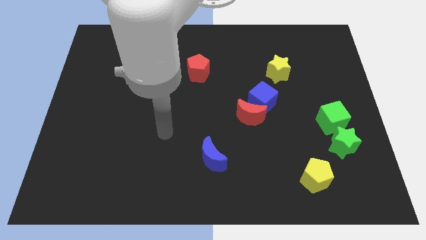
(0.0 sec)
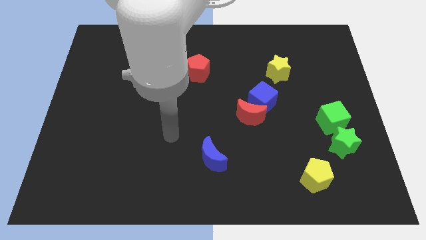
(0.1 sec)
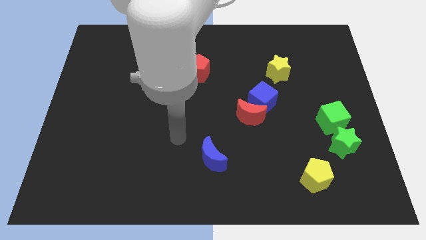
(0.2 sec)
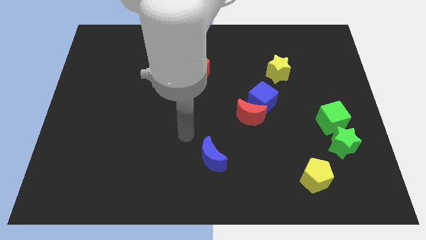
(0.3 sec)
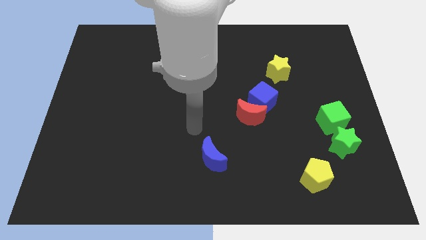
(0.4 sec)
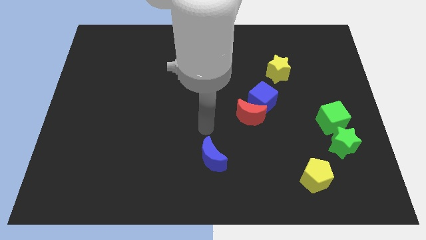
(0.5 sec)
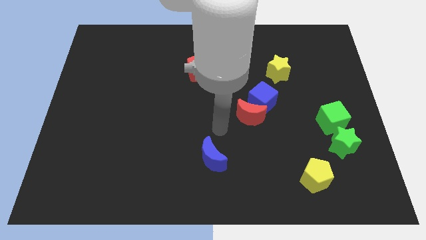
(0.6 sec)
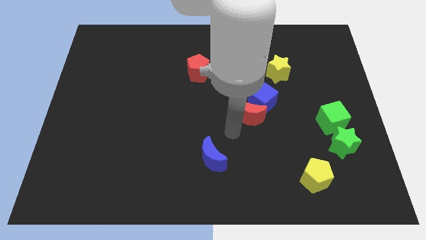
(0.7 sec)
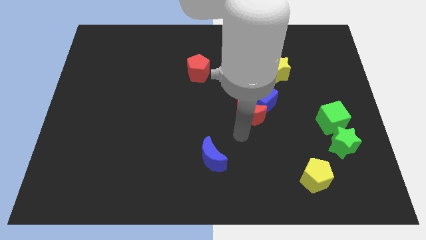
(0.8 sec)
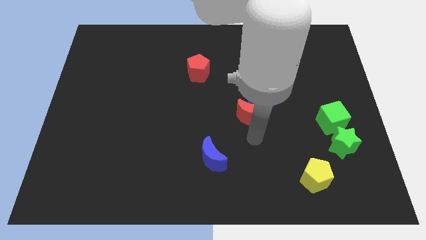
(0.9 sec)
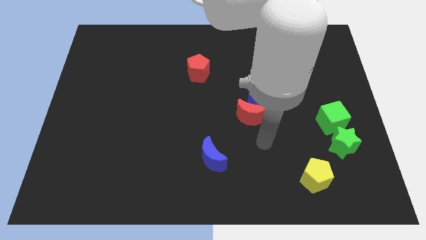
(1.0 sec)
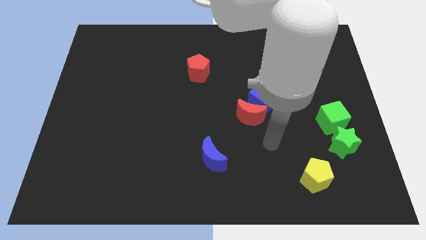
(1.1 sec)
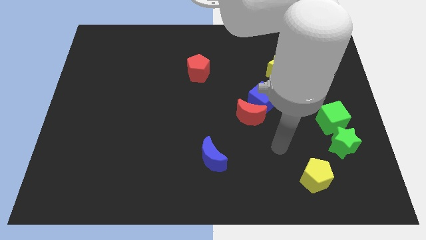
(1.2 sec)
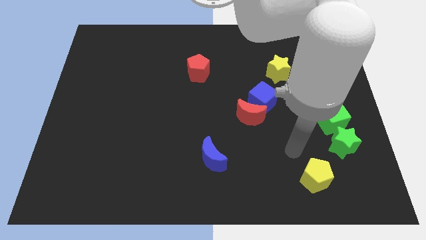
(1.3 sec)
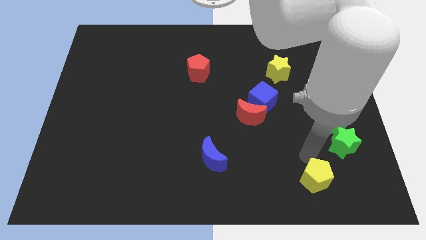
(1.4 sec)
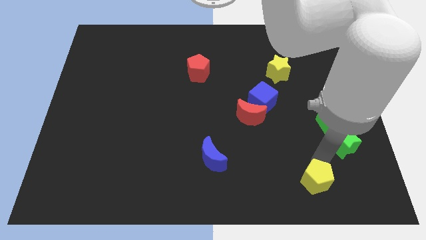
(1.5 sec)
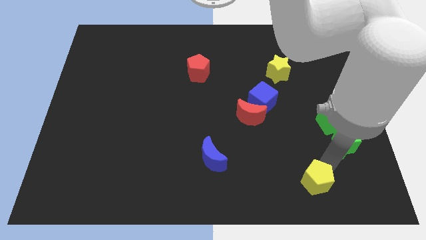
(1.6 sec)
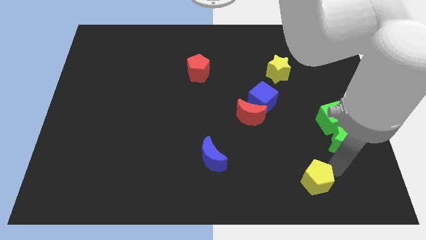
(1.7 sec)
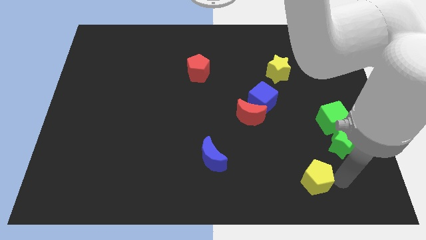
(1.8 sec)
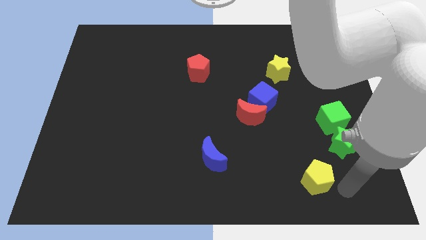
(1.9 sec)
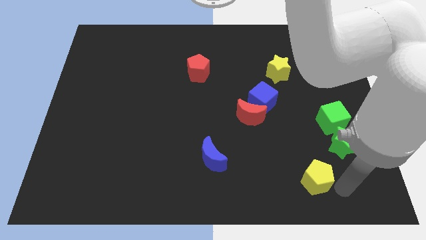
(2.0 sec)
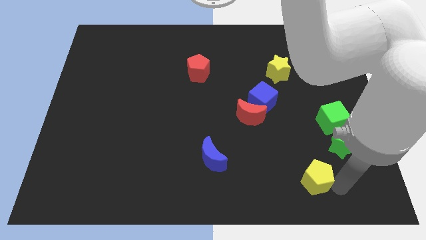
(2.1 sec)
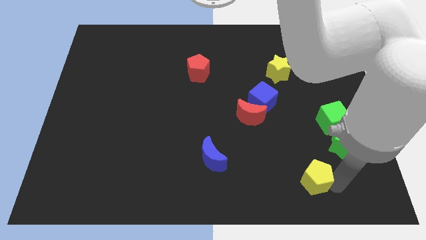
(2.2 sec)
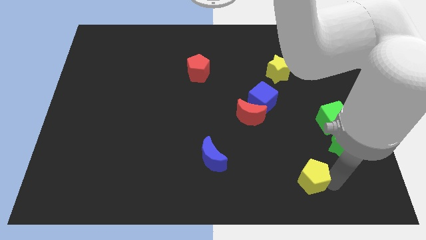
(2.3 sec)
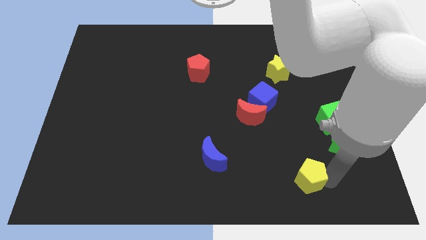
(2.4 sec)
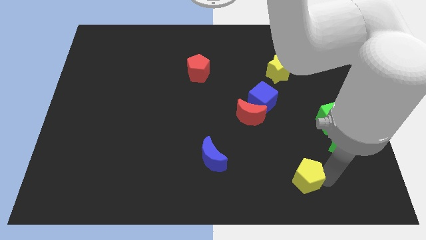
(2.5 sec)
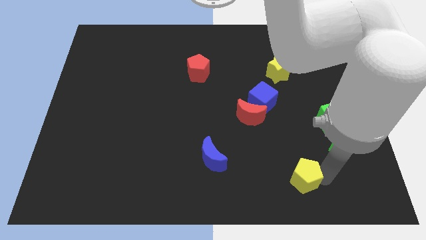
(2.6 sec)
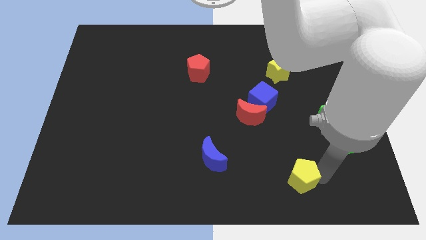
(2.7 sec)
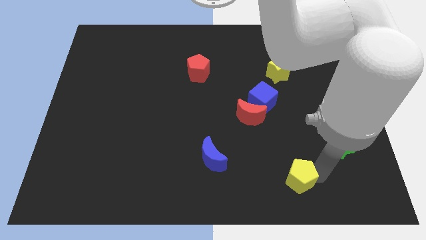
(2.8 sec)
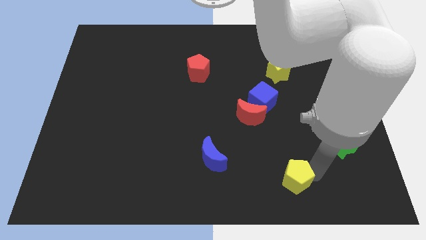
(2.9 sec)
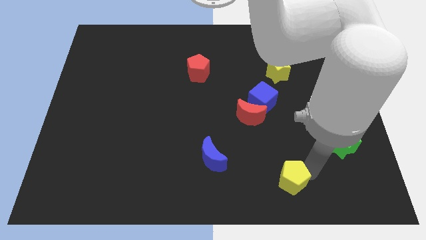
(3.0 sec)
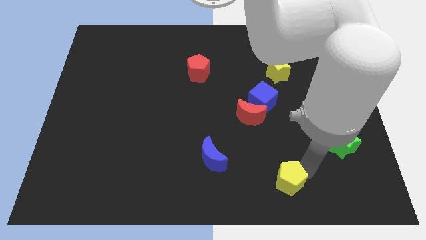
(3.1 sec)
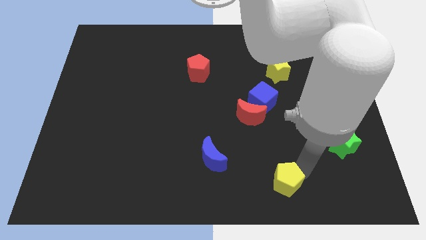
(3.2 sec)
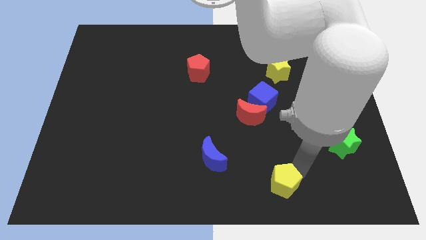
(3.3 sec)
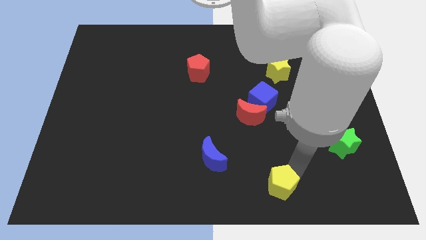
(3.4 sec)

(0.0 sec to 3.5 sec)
move the yellow pentagon to the left a little

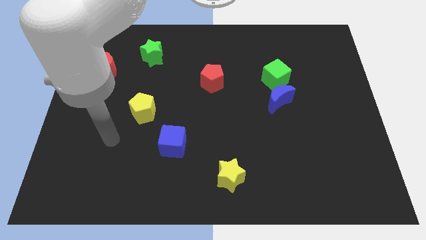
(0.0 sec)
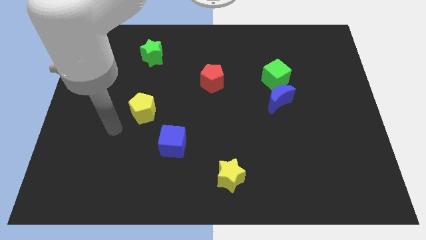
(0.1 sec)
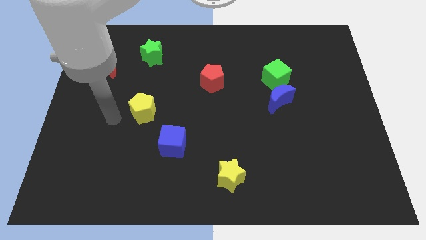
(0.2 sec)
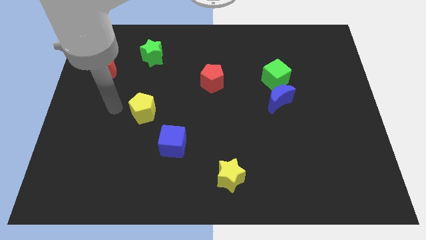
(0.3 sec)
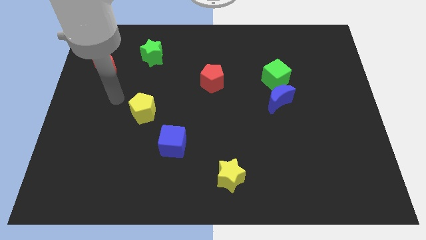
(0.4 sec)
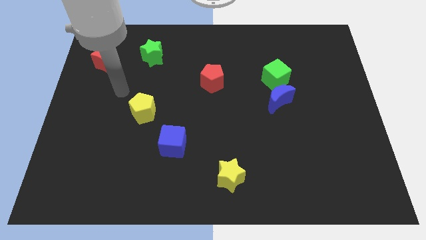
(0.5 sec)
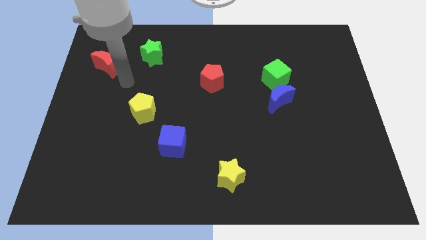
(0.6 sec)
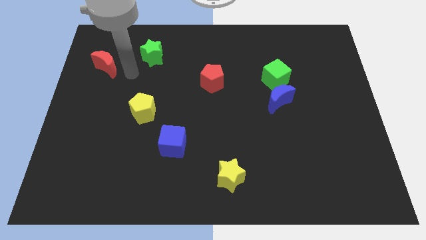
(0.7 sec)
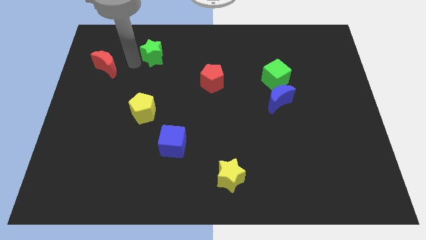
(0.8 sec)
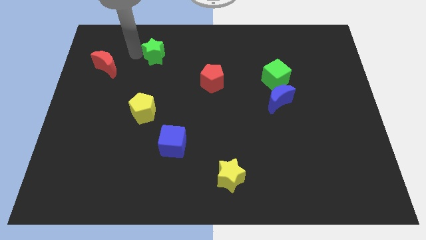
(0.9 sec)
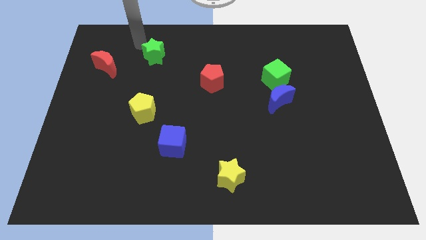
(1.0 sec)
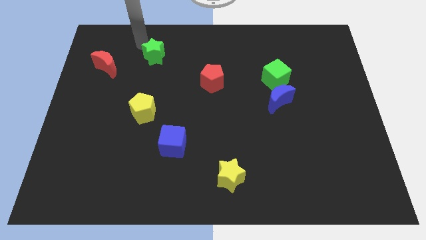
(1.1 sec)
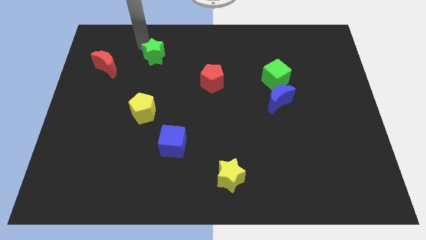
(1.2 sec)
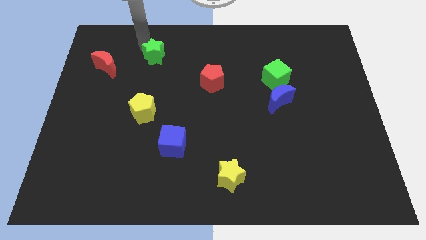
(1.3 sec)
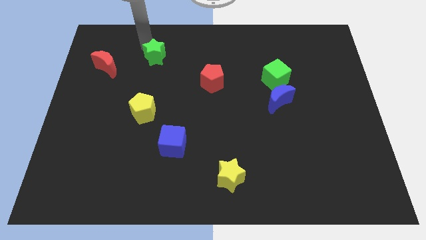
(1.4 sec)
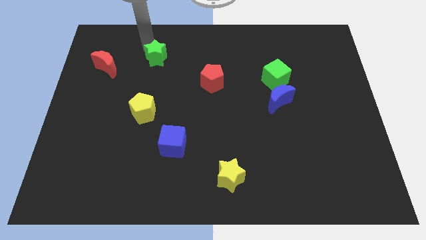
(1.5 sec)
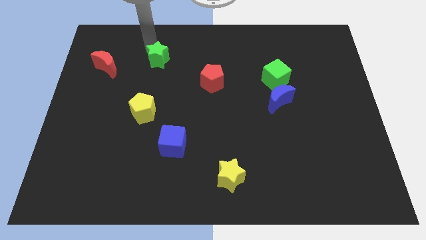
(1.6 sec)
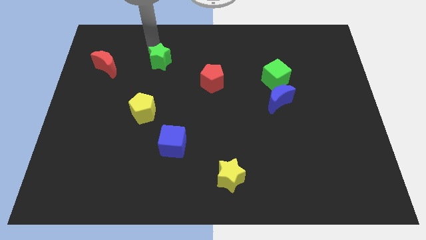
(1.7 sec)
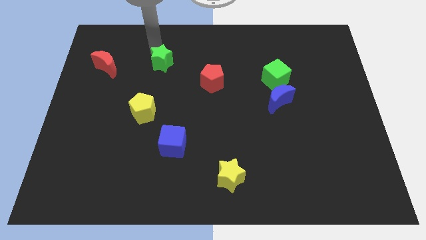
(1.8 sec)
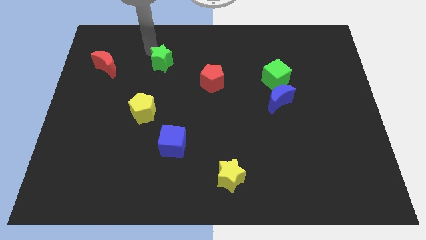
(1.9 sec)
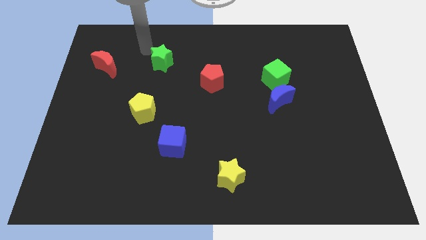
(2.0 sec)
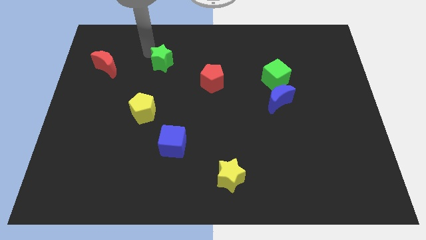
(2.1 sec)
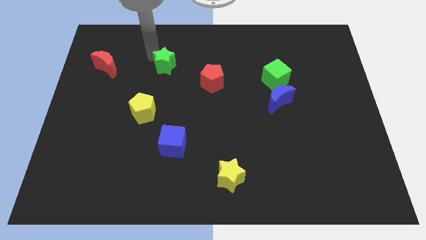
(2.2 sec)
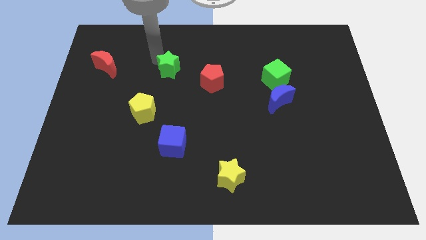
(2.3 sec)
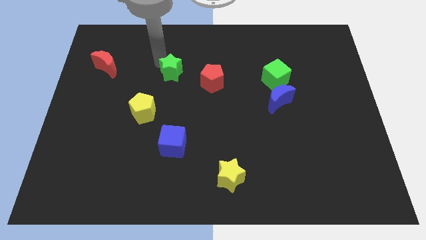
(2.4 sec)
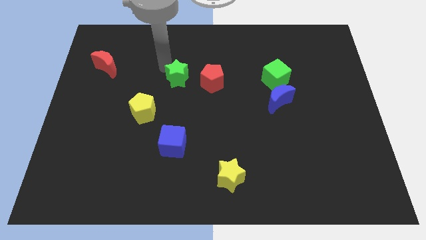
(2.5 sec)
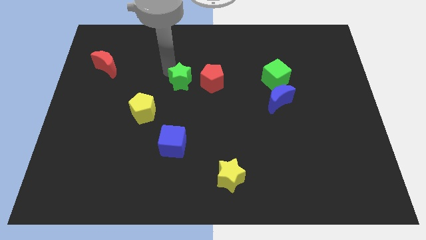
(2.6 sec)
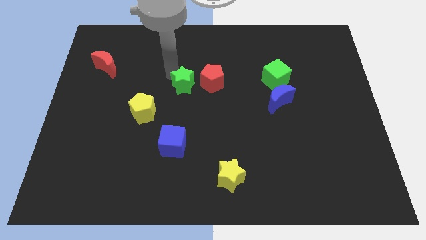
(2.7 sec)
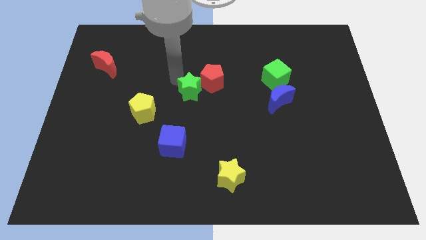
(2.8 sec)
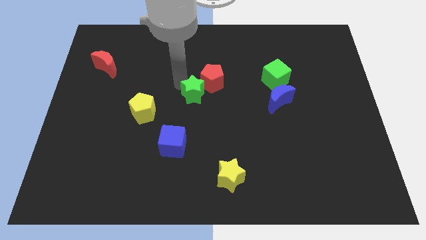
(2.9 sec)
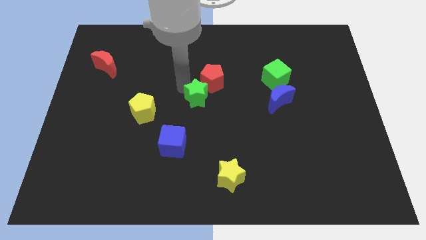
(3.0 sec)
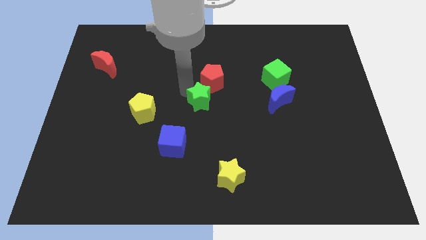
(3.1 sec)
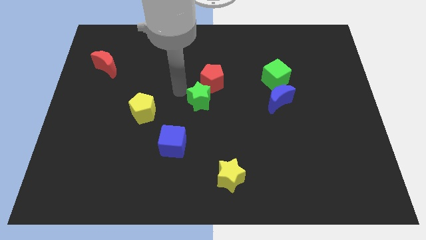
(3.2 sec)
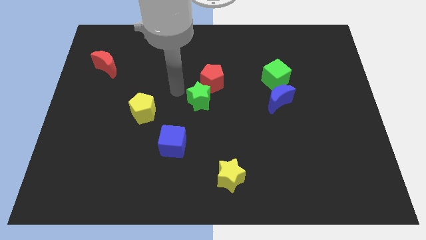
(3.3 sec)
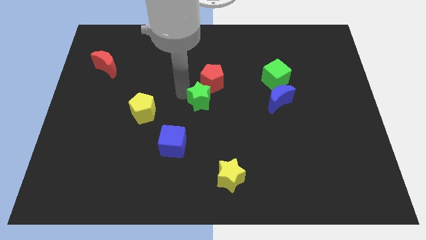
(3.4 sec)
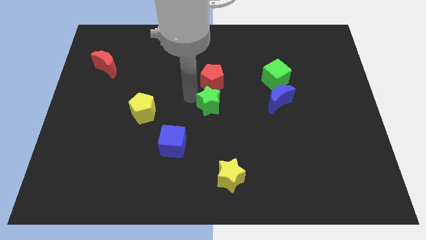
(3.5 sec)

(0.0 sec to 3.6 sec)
slide the green star down and to the right diagonally

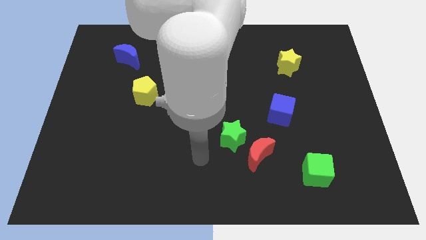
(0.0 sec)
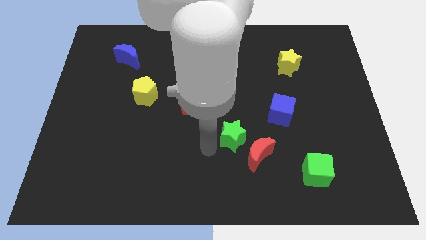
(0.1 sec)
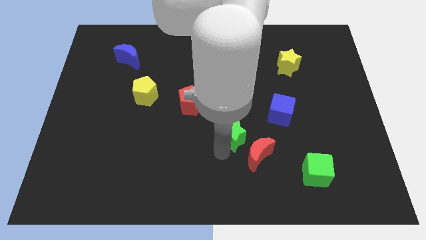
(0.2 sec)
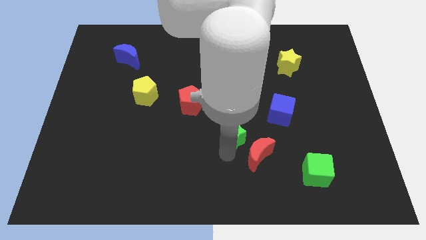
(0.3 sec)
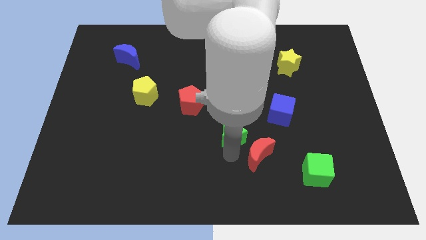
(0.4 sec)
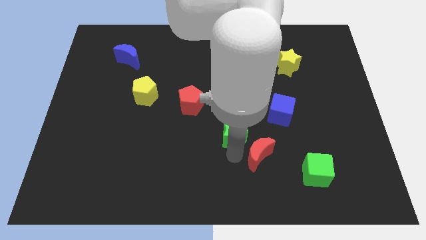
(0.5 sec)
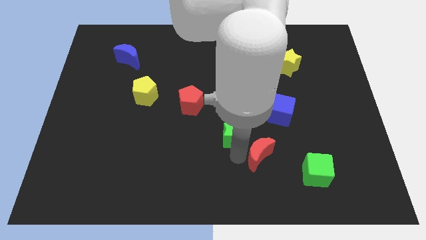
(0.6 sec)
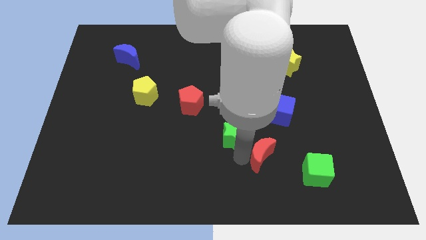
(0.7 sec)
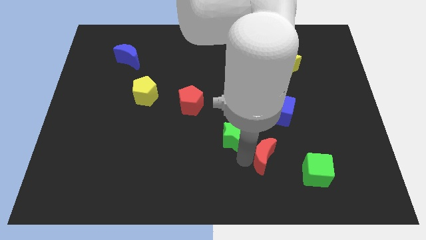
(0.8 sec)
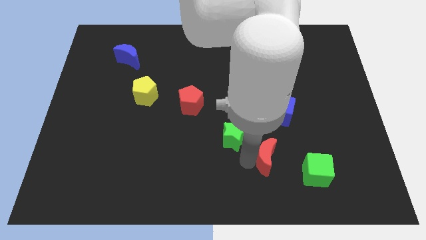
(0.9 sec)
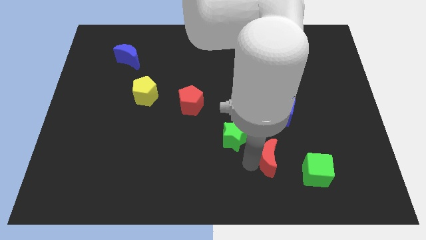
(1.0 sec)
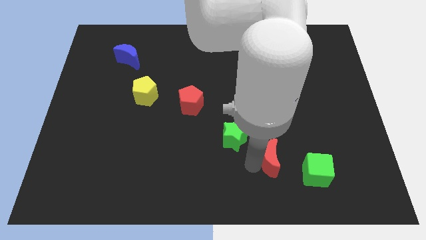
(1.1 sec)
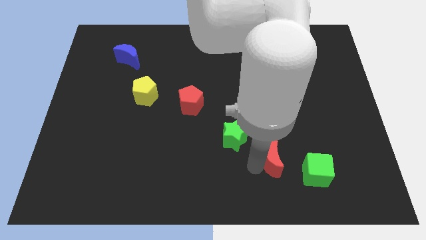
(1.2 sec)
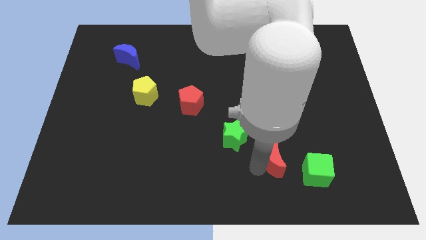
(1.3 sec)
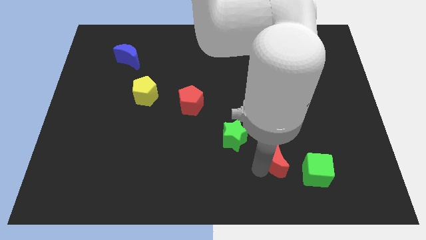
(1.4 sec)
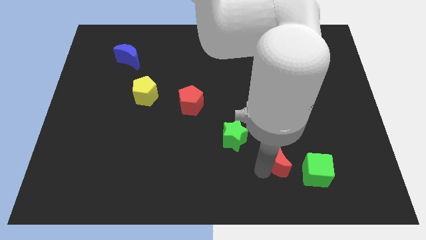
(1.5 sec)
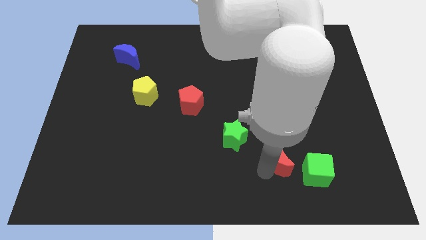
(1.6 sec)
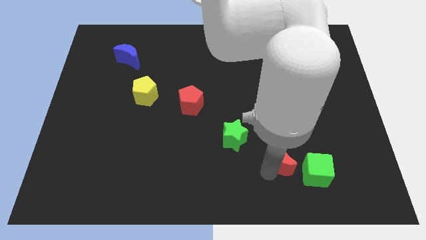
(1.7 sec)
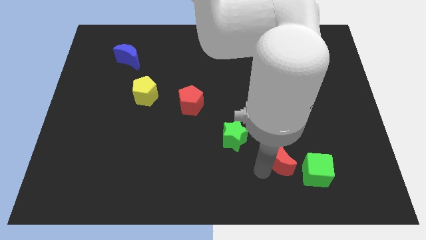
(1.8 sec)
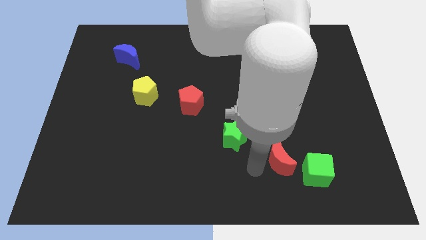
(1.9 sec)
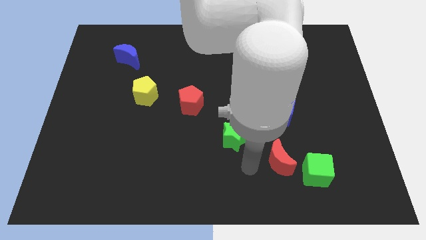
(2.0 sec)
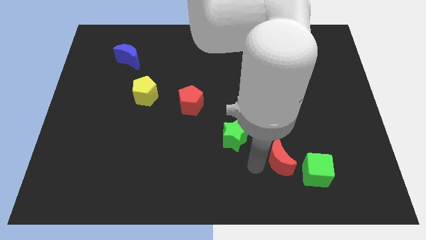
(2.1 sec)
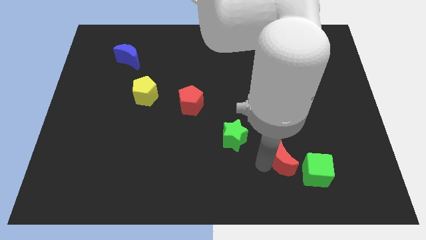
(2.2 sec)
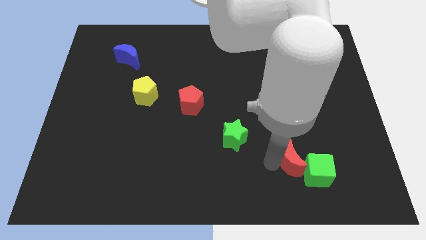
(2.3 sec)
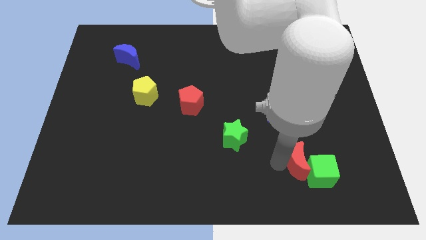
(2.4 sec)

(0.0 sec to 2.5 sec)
slide the red moon a little to the right
